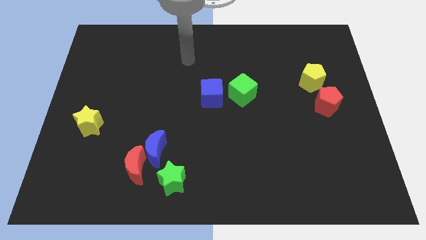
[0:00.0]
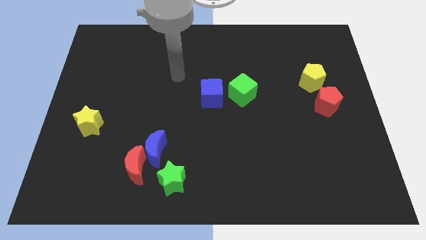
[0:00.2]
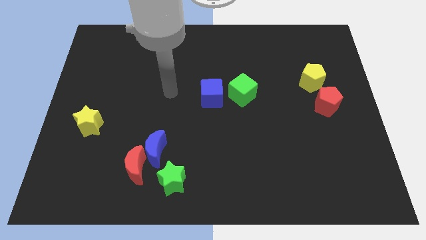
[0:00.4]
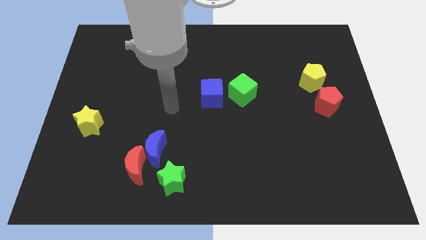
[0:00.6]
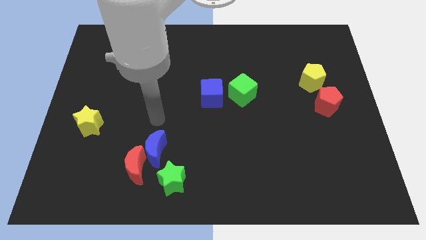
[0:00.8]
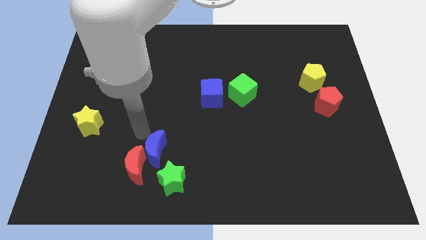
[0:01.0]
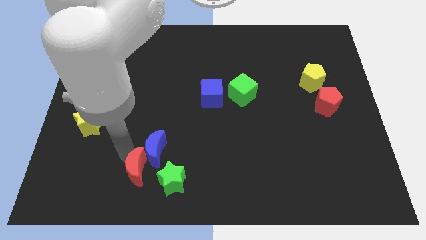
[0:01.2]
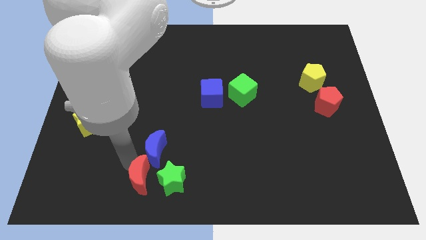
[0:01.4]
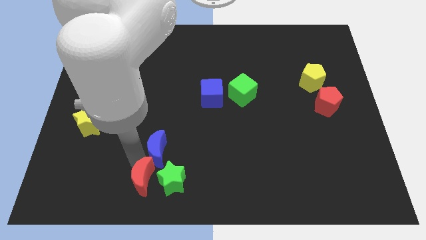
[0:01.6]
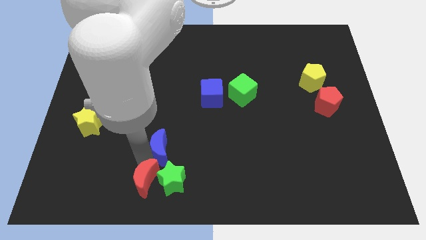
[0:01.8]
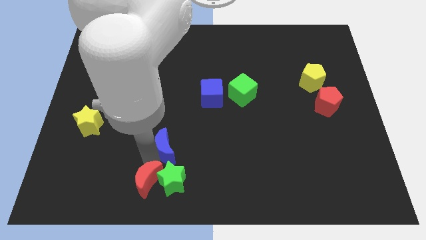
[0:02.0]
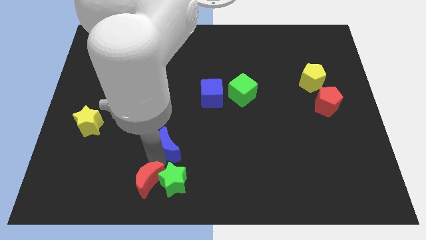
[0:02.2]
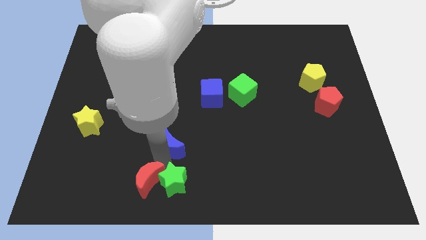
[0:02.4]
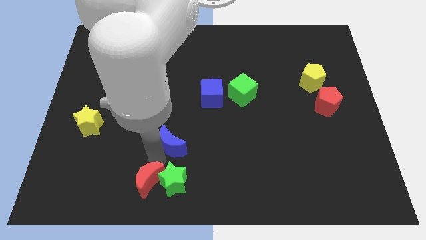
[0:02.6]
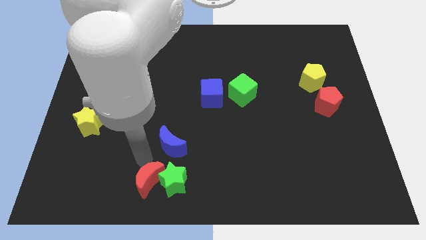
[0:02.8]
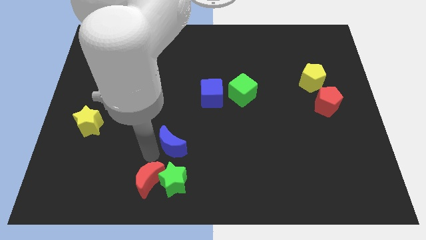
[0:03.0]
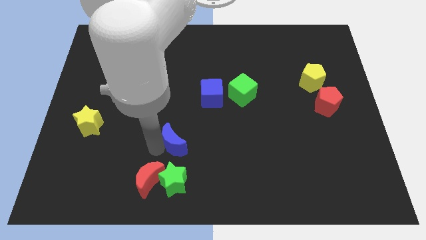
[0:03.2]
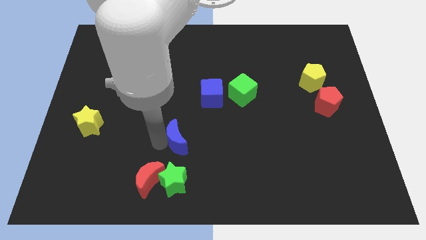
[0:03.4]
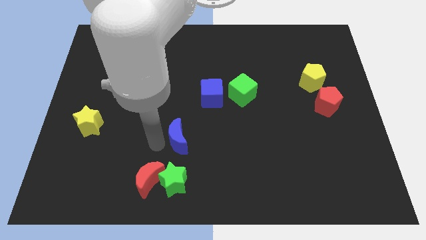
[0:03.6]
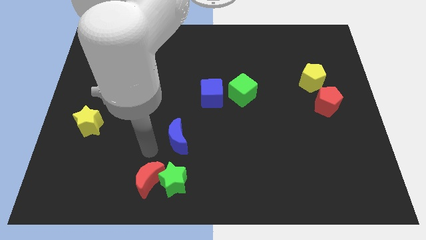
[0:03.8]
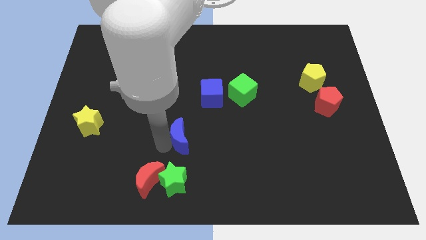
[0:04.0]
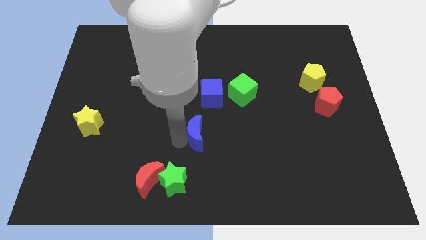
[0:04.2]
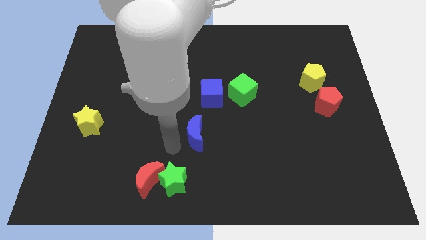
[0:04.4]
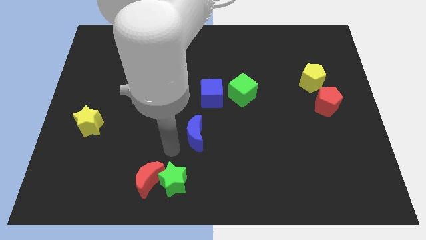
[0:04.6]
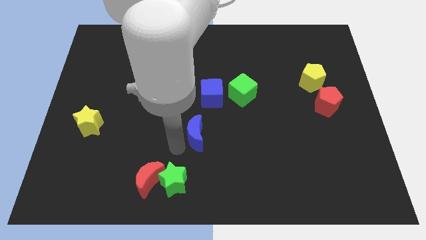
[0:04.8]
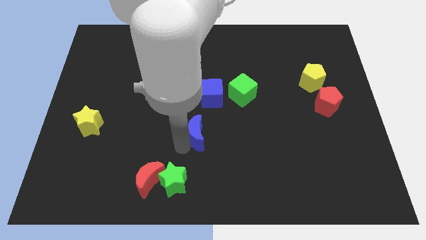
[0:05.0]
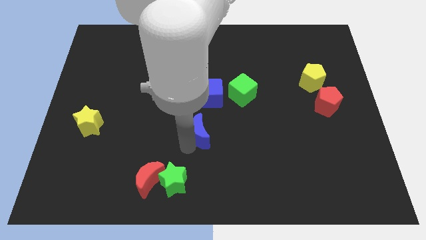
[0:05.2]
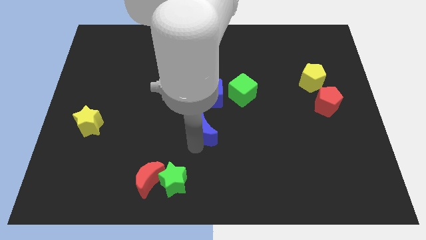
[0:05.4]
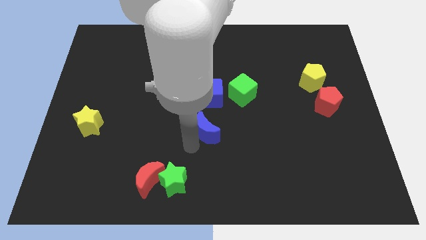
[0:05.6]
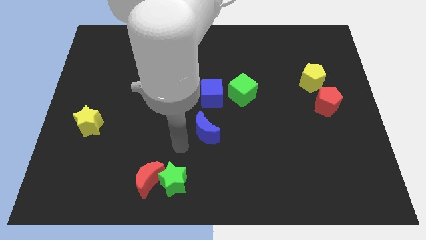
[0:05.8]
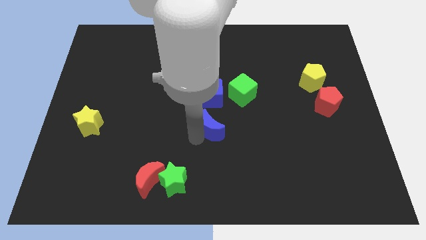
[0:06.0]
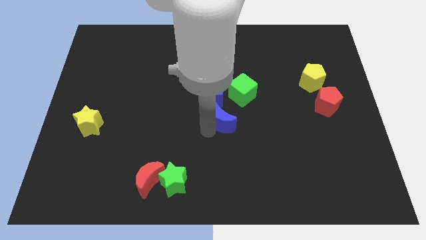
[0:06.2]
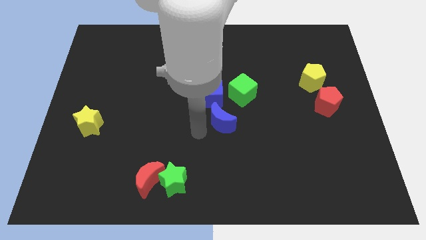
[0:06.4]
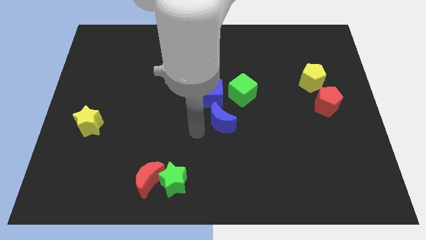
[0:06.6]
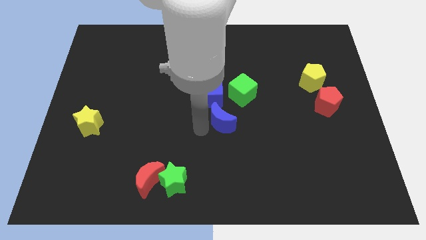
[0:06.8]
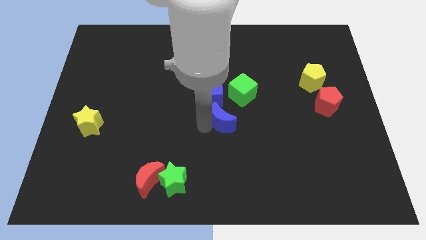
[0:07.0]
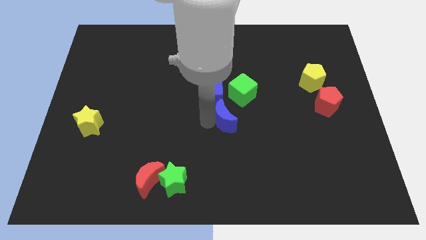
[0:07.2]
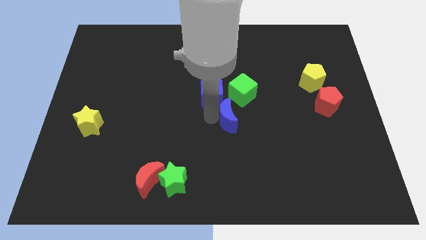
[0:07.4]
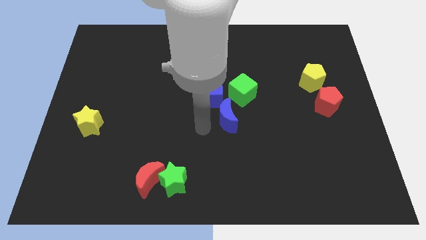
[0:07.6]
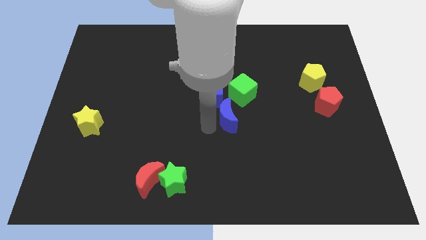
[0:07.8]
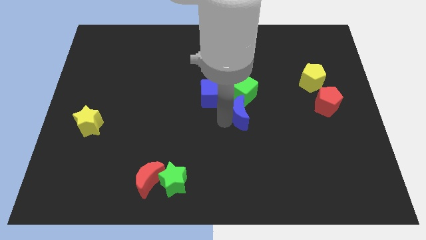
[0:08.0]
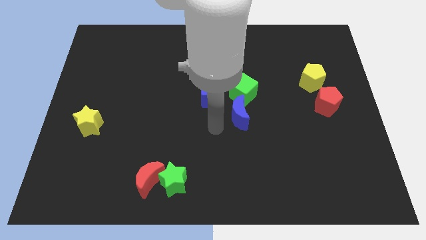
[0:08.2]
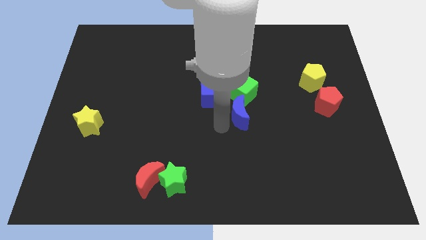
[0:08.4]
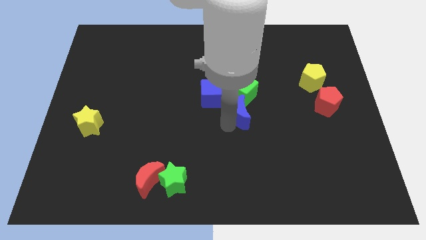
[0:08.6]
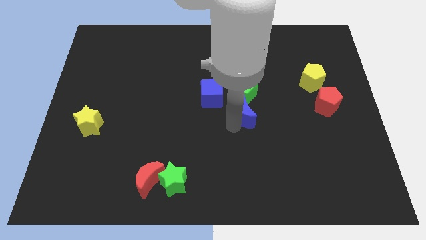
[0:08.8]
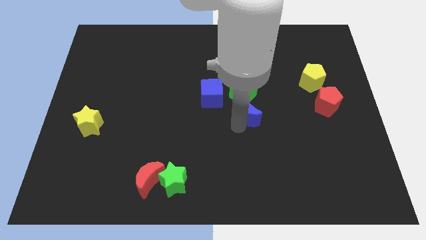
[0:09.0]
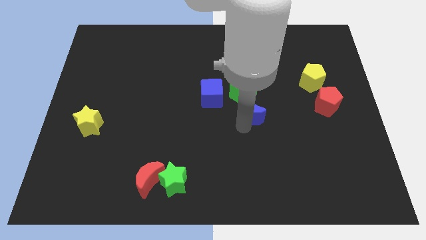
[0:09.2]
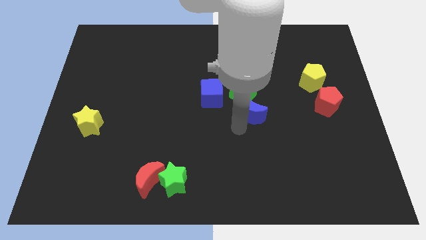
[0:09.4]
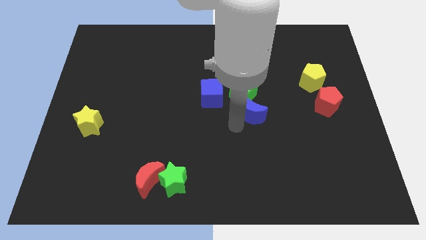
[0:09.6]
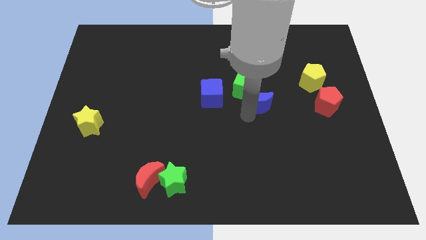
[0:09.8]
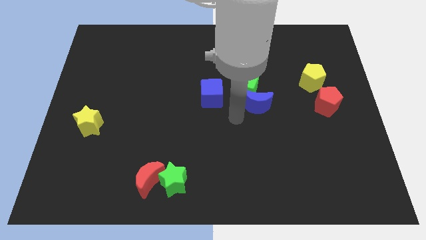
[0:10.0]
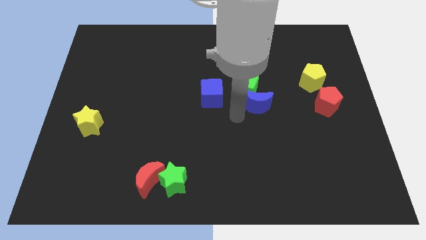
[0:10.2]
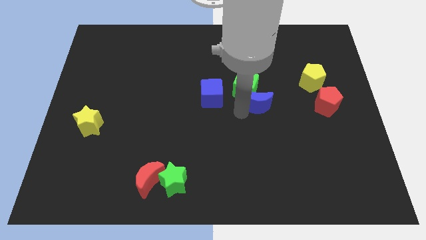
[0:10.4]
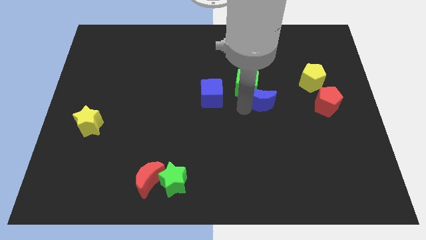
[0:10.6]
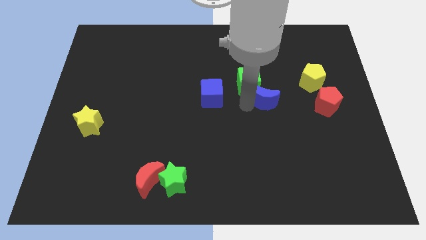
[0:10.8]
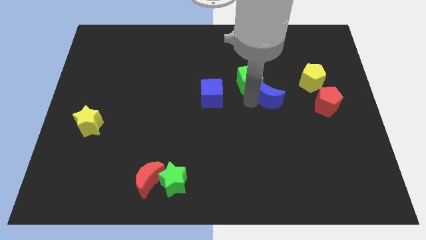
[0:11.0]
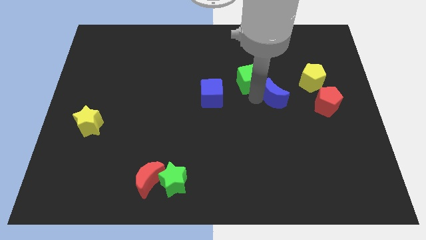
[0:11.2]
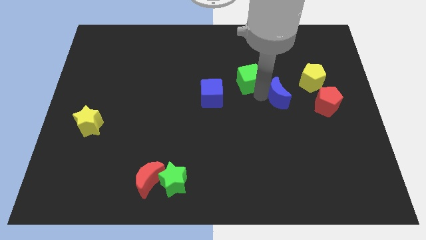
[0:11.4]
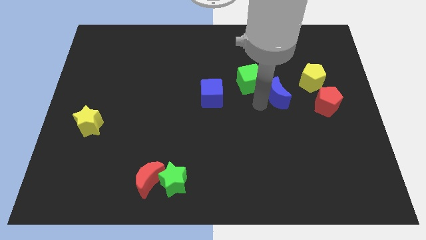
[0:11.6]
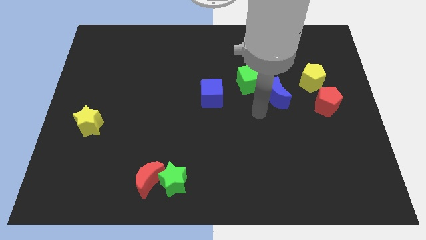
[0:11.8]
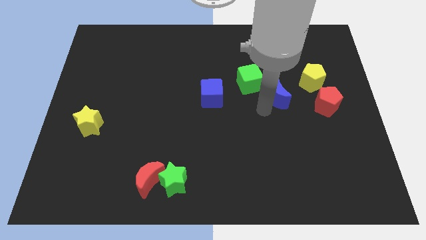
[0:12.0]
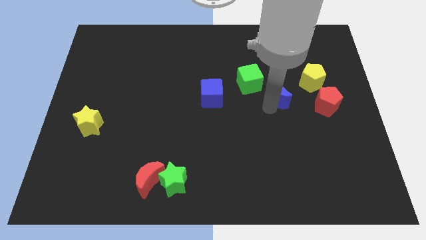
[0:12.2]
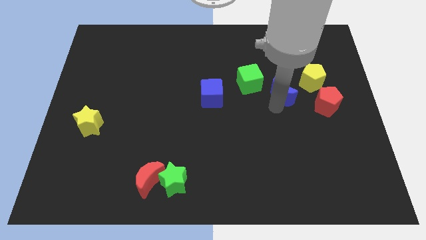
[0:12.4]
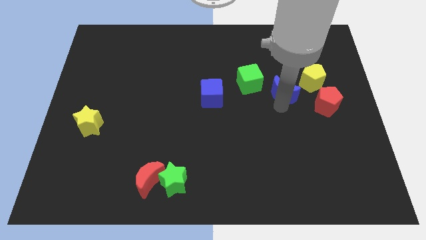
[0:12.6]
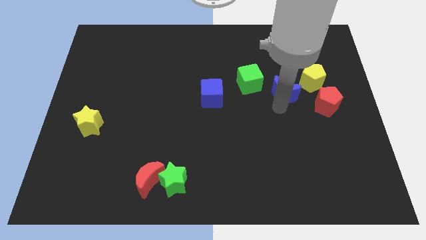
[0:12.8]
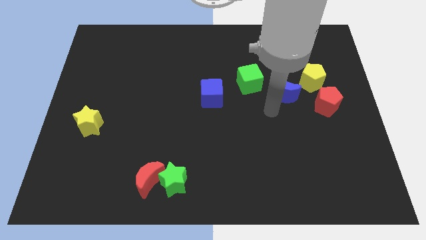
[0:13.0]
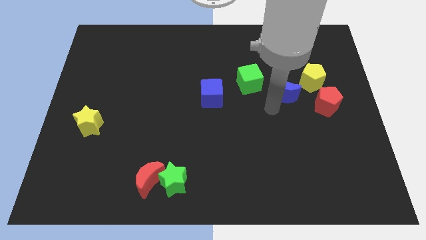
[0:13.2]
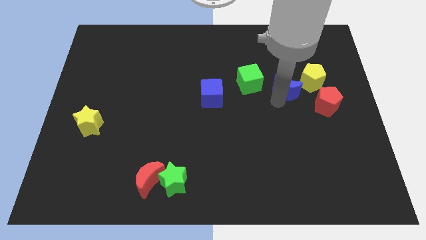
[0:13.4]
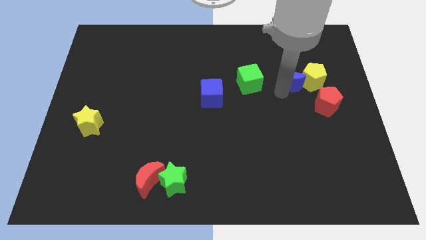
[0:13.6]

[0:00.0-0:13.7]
push the blue moon next to the yellow pentagon
